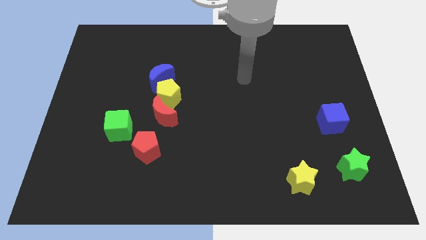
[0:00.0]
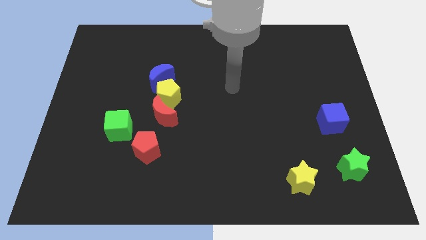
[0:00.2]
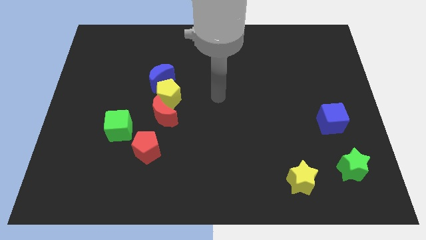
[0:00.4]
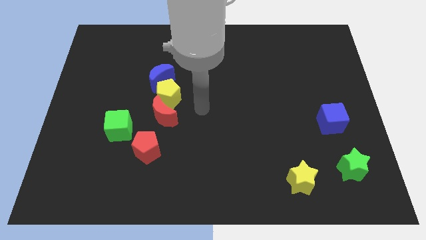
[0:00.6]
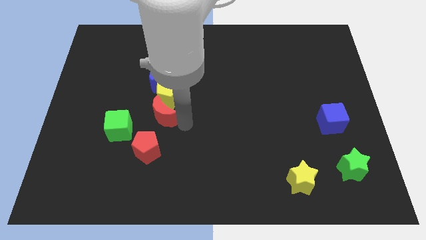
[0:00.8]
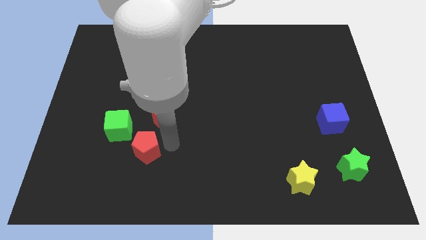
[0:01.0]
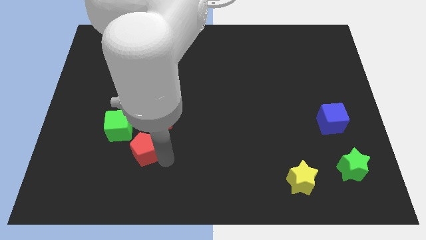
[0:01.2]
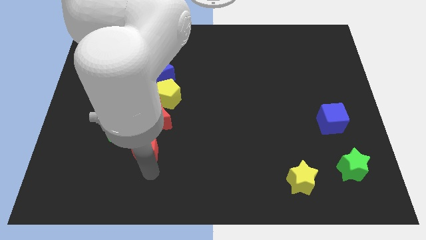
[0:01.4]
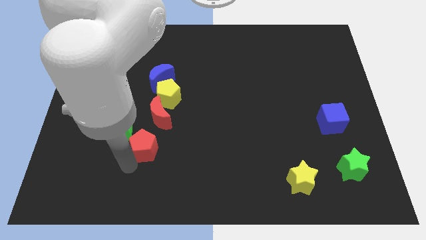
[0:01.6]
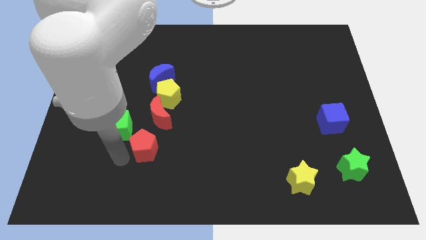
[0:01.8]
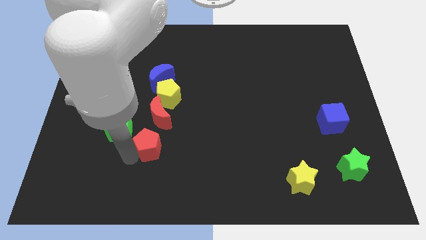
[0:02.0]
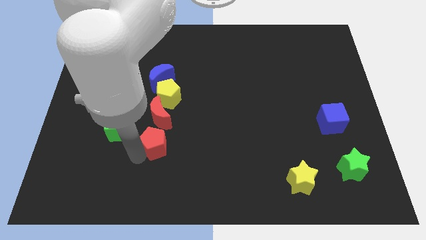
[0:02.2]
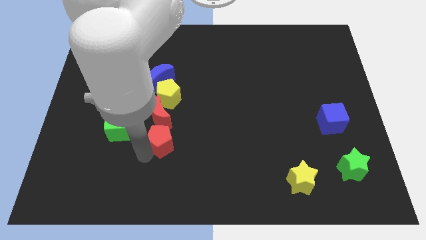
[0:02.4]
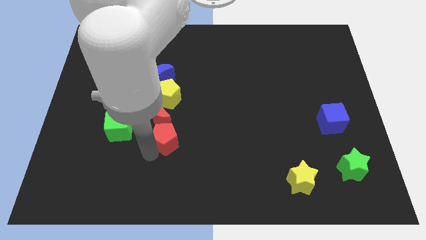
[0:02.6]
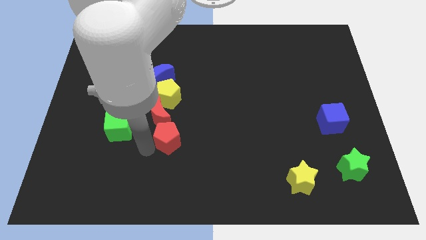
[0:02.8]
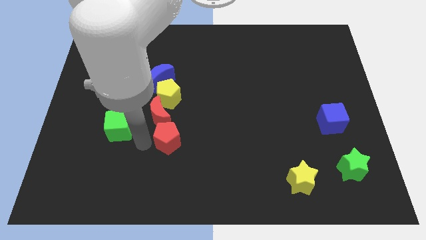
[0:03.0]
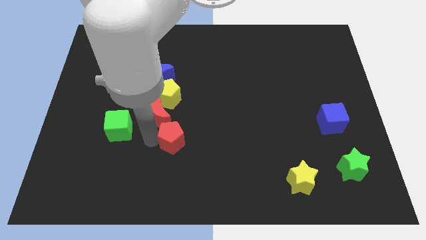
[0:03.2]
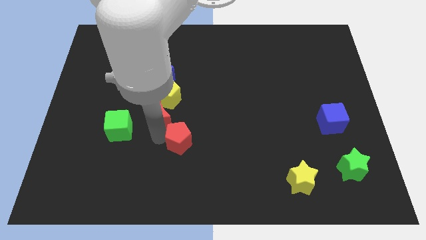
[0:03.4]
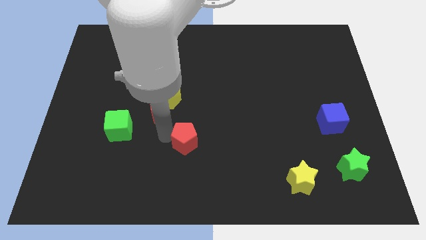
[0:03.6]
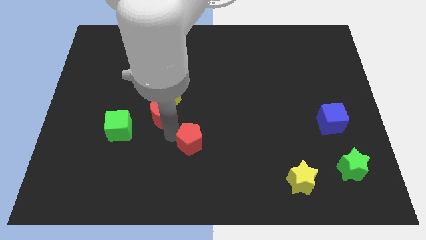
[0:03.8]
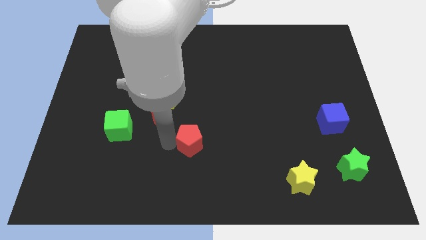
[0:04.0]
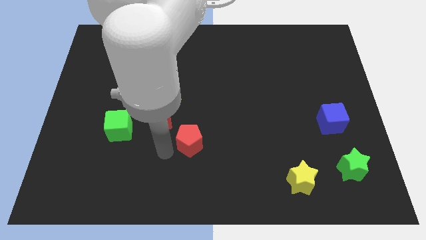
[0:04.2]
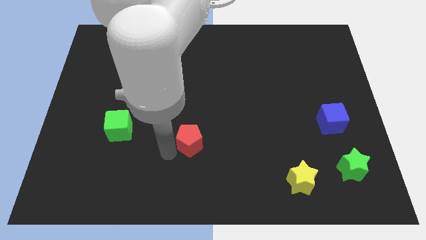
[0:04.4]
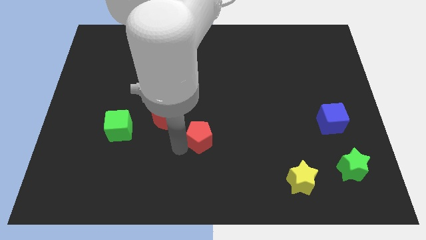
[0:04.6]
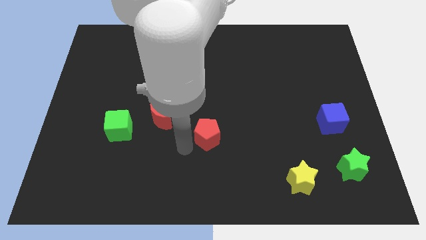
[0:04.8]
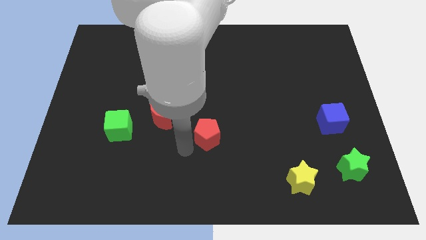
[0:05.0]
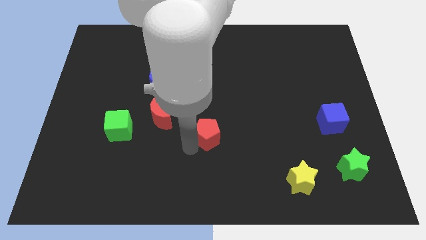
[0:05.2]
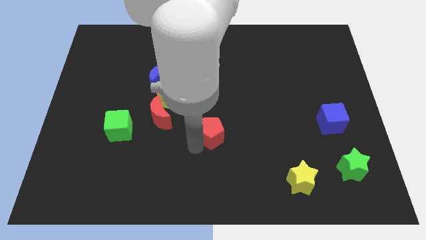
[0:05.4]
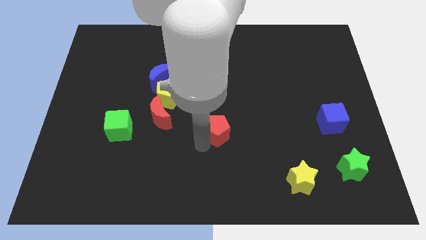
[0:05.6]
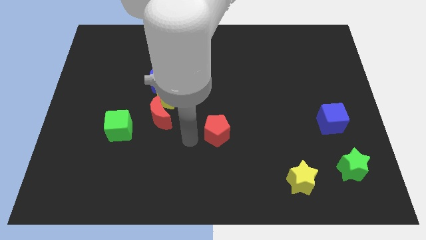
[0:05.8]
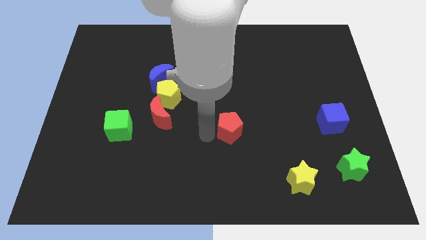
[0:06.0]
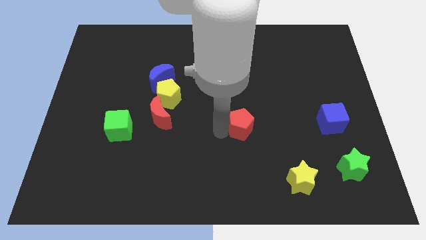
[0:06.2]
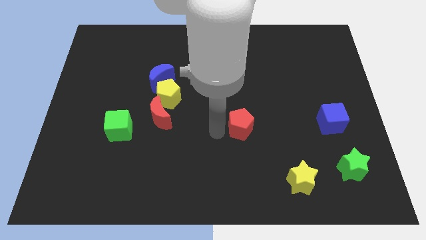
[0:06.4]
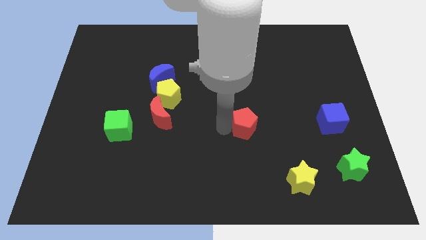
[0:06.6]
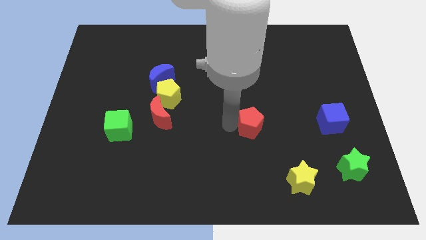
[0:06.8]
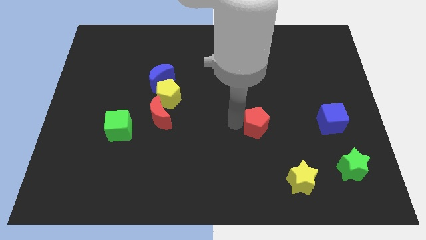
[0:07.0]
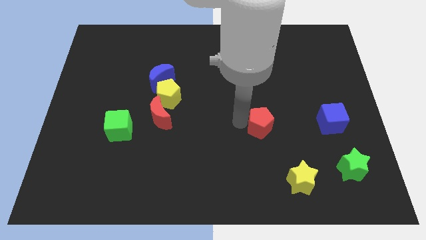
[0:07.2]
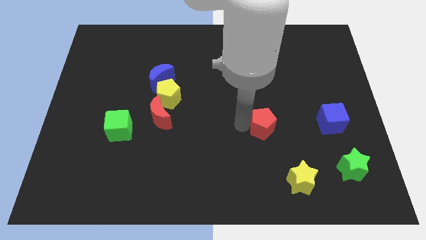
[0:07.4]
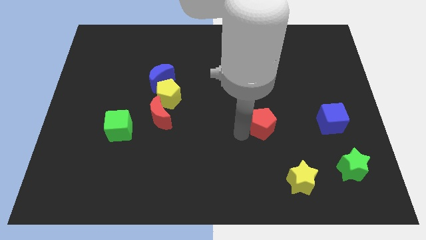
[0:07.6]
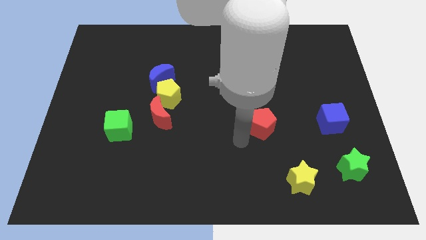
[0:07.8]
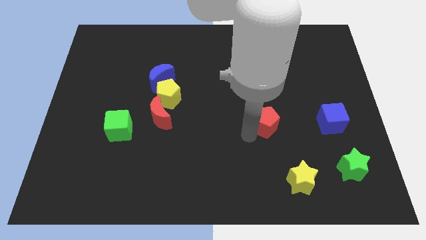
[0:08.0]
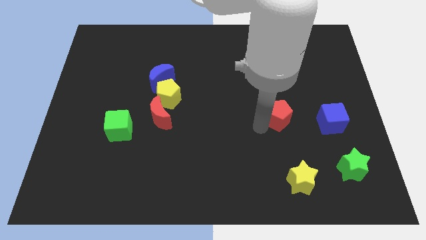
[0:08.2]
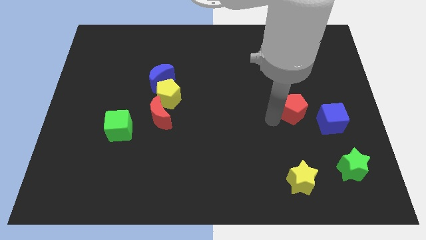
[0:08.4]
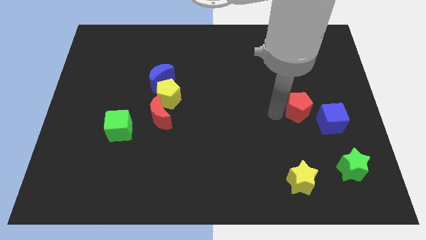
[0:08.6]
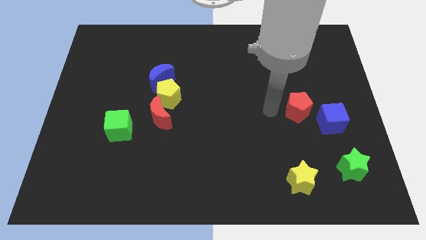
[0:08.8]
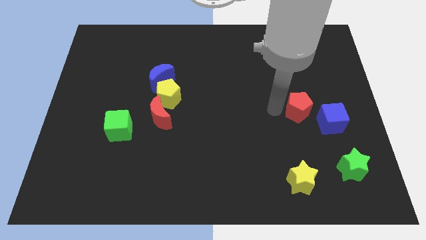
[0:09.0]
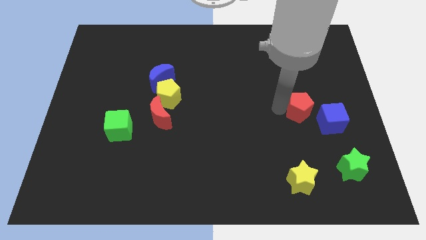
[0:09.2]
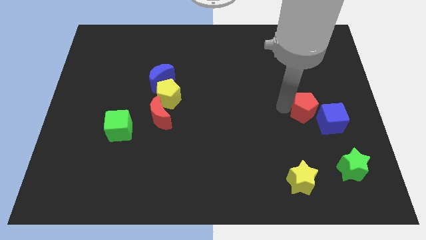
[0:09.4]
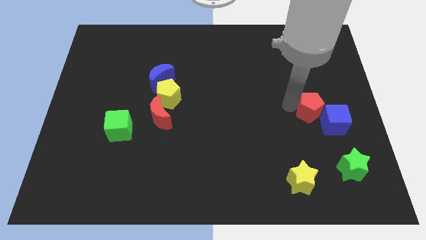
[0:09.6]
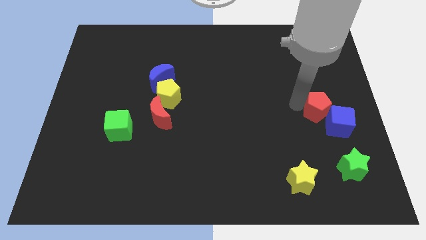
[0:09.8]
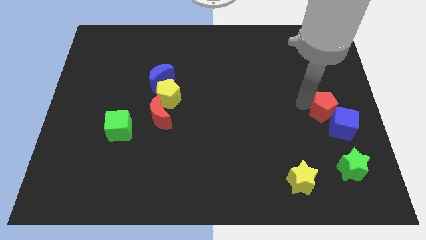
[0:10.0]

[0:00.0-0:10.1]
push the red pentagon to the right side of the board
